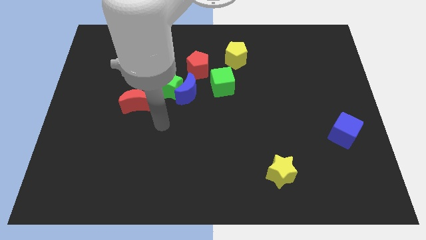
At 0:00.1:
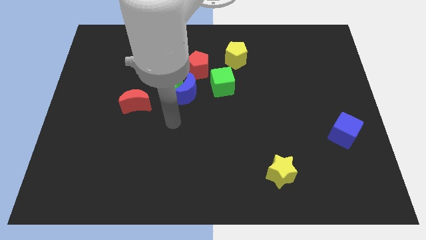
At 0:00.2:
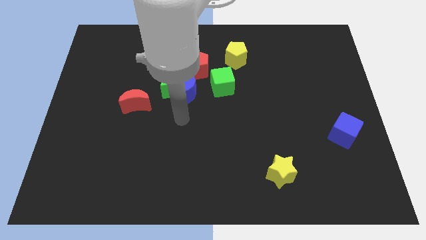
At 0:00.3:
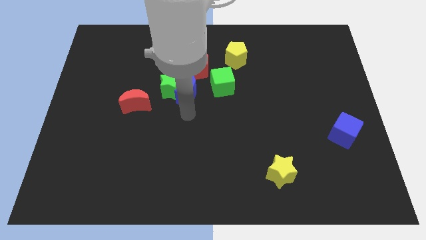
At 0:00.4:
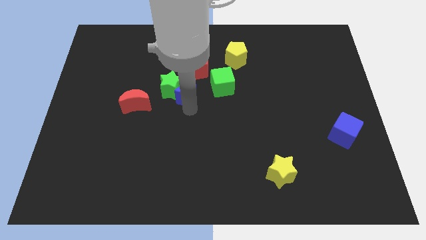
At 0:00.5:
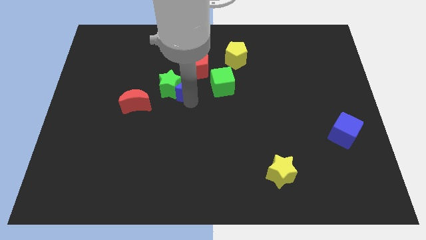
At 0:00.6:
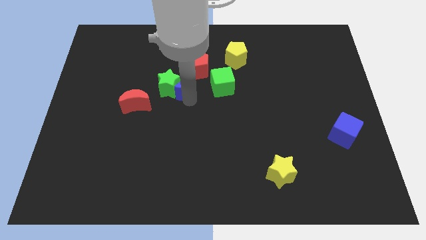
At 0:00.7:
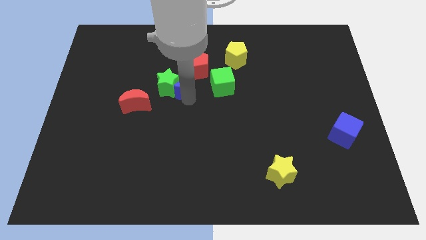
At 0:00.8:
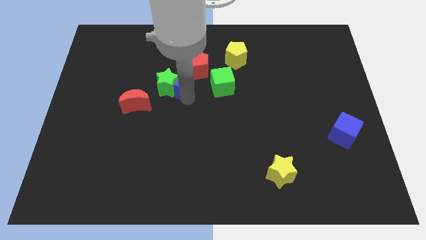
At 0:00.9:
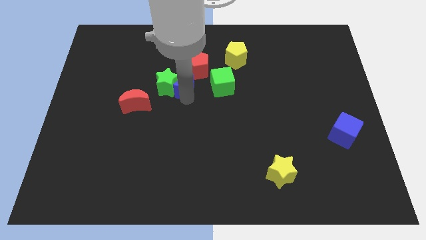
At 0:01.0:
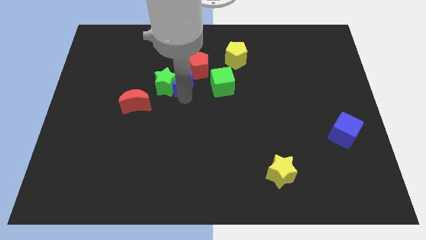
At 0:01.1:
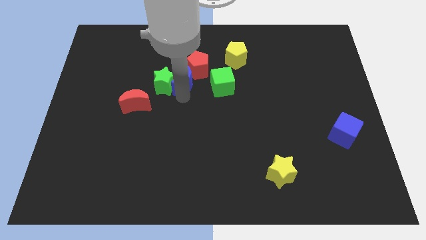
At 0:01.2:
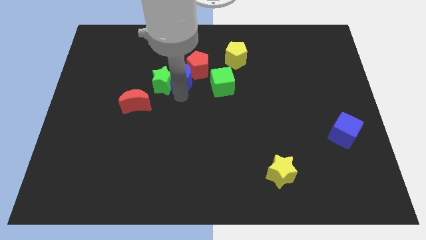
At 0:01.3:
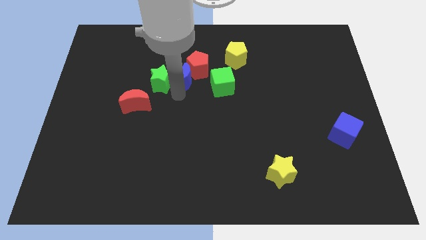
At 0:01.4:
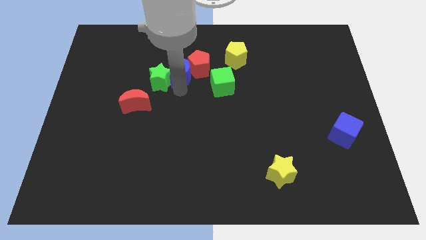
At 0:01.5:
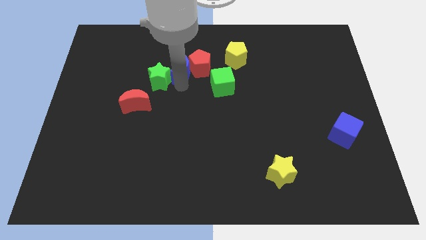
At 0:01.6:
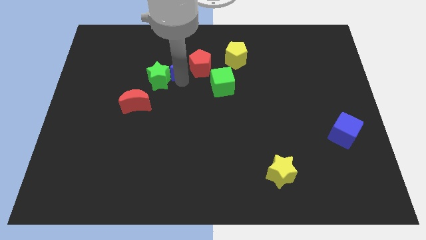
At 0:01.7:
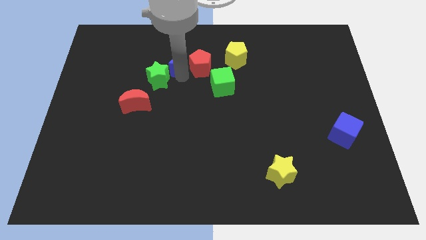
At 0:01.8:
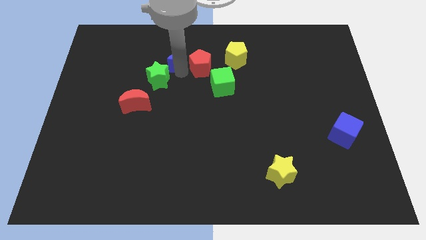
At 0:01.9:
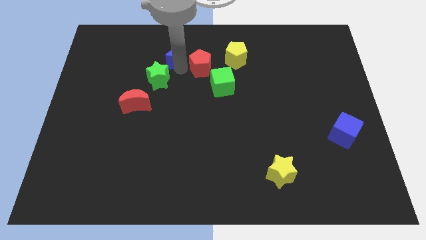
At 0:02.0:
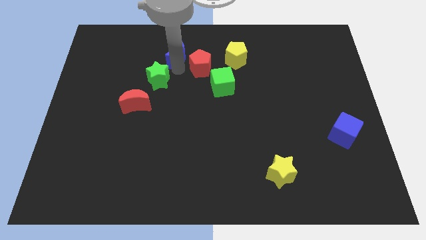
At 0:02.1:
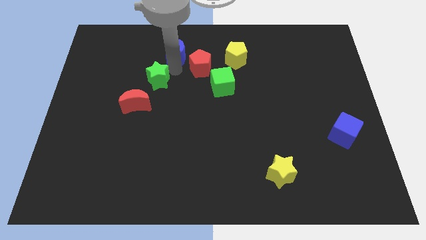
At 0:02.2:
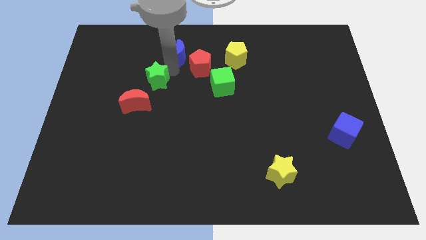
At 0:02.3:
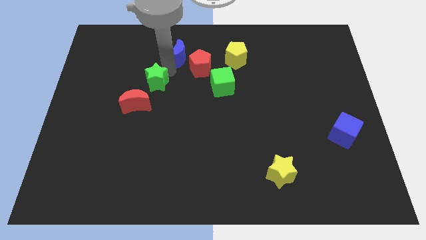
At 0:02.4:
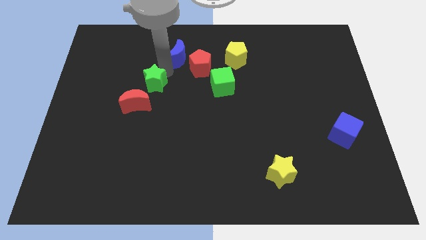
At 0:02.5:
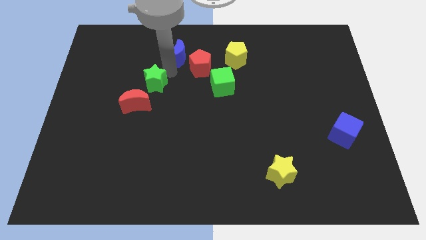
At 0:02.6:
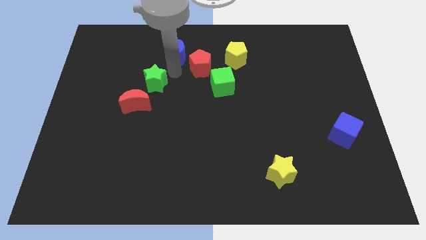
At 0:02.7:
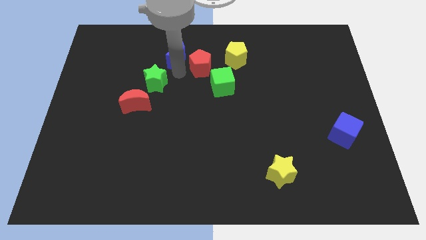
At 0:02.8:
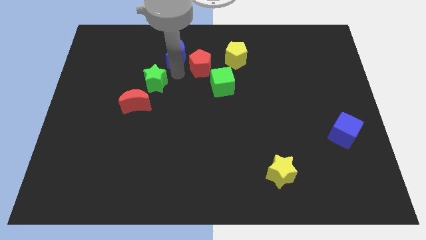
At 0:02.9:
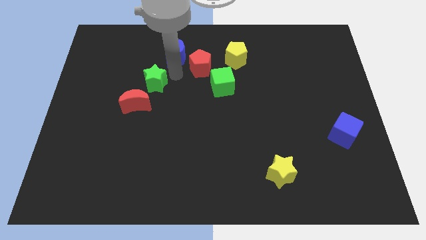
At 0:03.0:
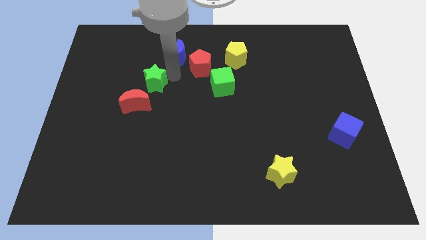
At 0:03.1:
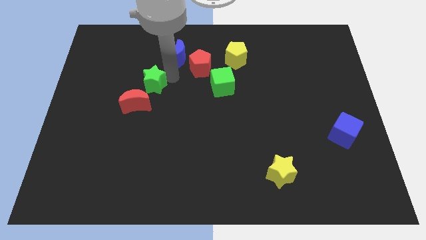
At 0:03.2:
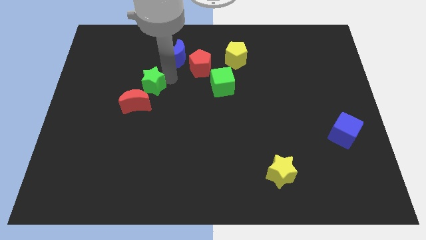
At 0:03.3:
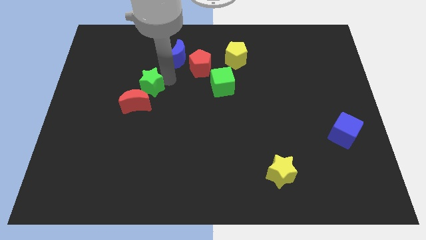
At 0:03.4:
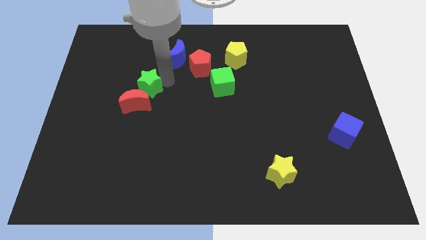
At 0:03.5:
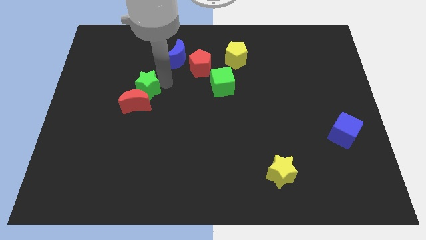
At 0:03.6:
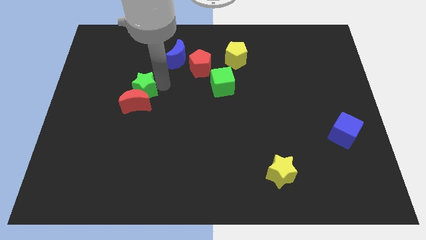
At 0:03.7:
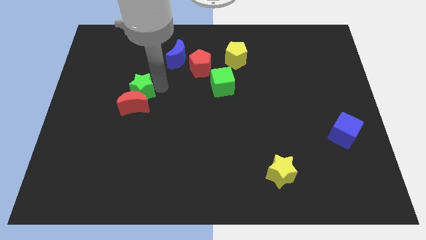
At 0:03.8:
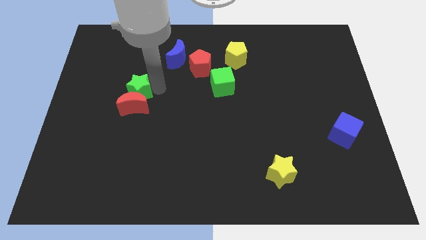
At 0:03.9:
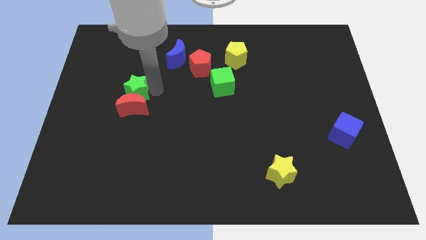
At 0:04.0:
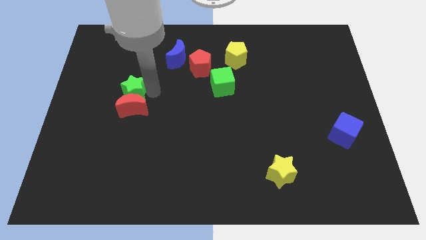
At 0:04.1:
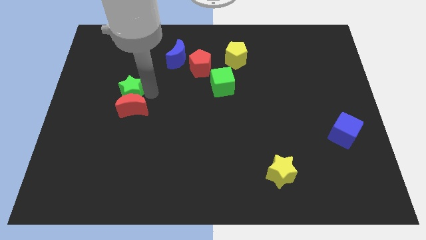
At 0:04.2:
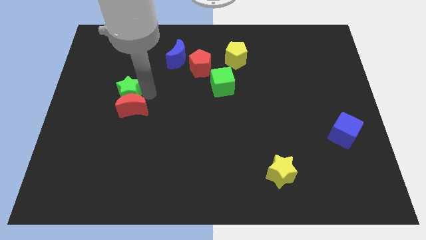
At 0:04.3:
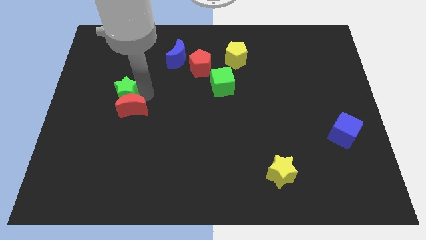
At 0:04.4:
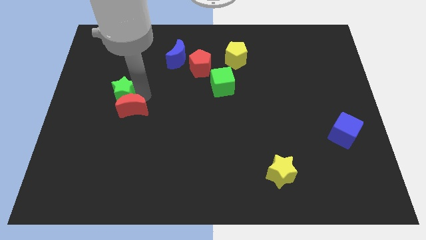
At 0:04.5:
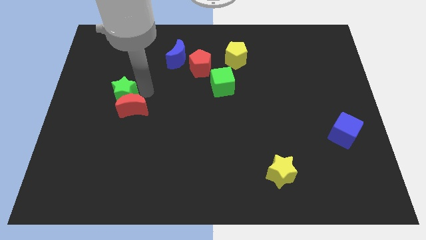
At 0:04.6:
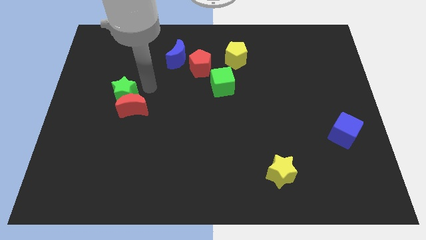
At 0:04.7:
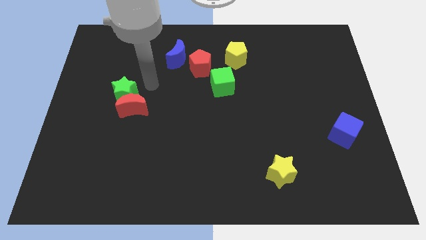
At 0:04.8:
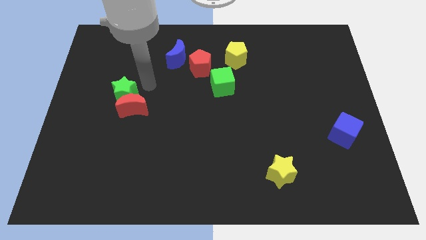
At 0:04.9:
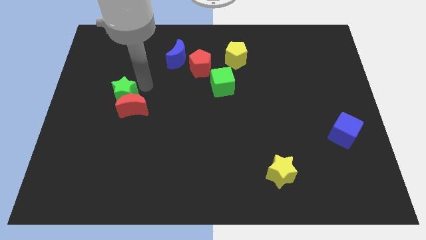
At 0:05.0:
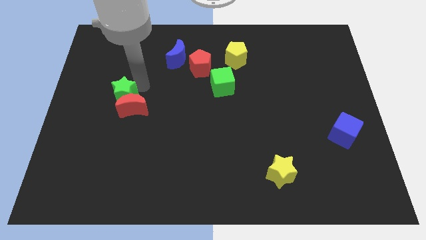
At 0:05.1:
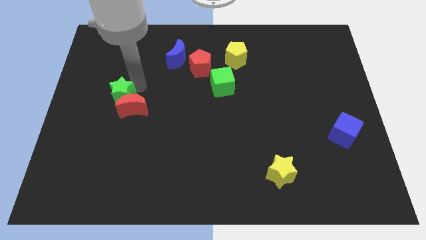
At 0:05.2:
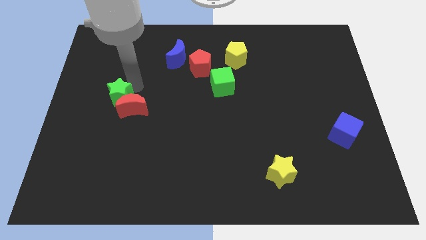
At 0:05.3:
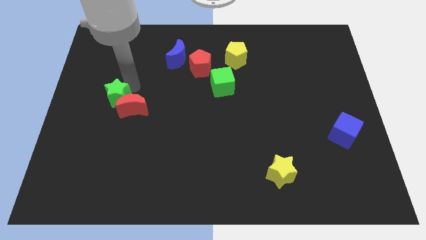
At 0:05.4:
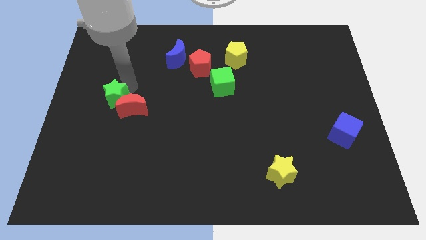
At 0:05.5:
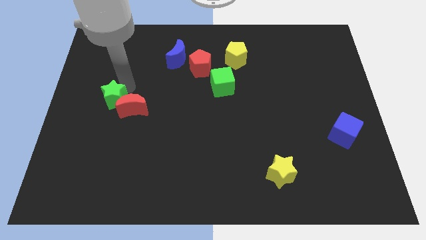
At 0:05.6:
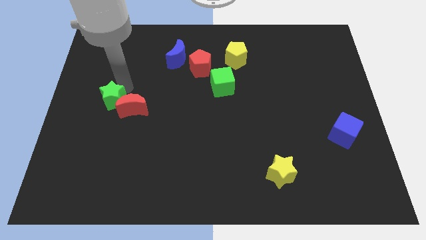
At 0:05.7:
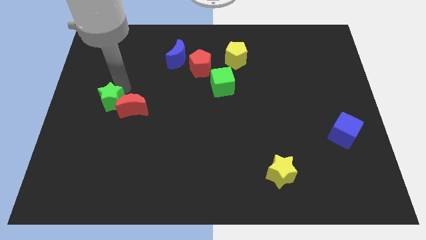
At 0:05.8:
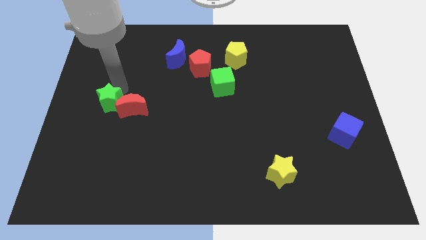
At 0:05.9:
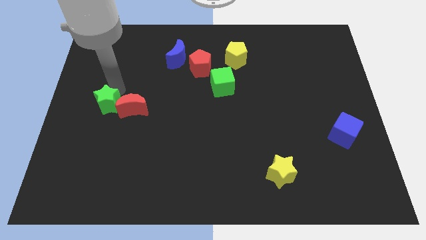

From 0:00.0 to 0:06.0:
move the green star to the left side

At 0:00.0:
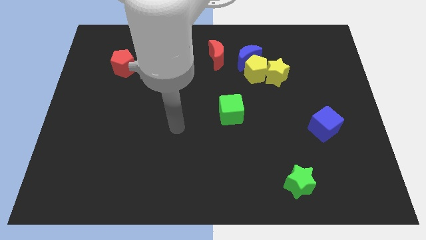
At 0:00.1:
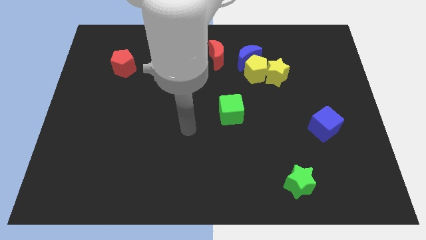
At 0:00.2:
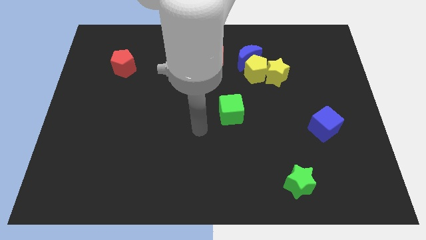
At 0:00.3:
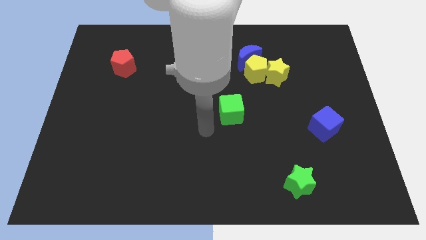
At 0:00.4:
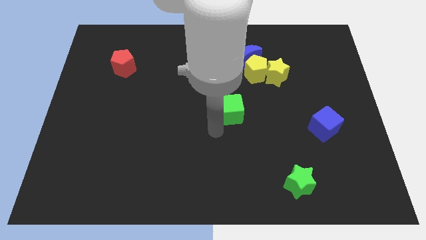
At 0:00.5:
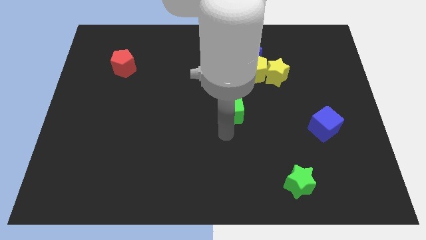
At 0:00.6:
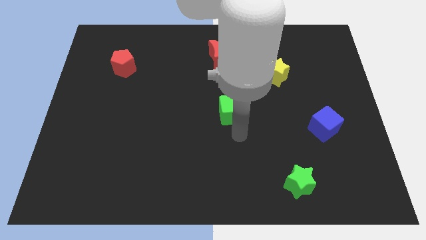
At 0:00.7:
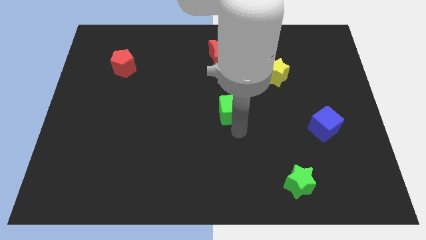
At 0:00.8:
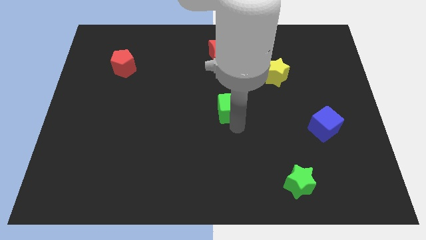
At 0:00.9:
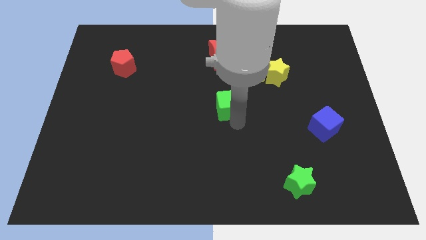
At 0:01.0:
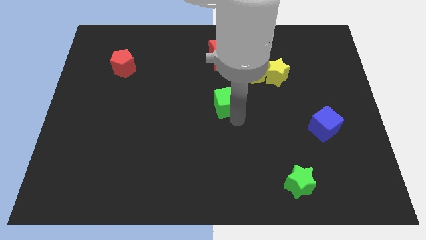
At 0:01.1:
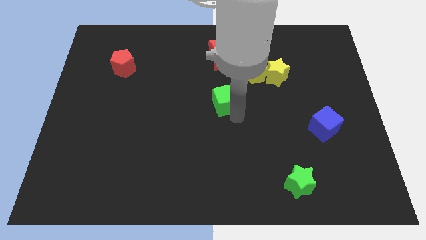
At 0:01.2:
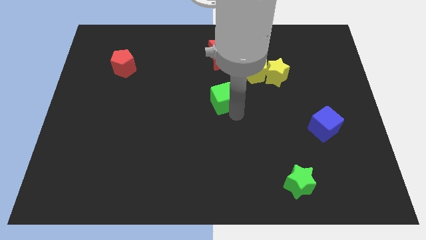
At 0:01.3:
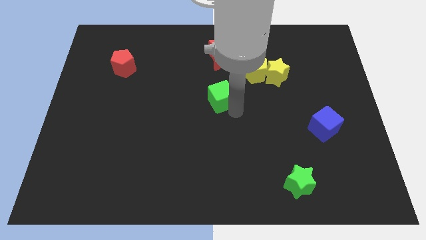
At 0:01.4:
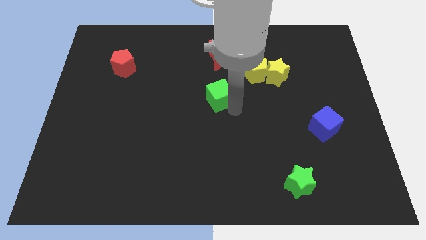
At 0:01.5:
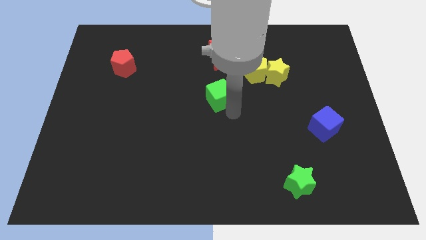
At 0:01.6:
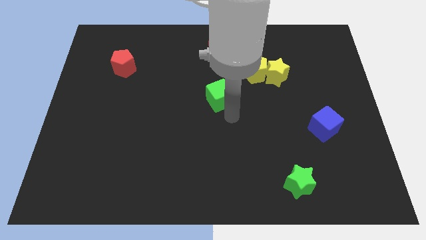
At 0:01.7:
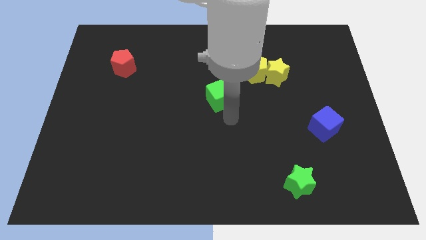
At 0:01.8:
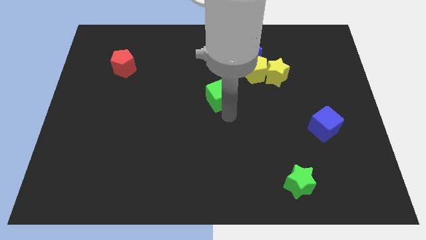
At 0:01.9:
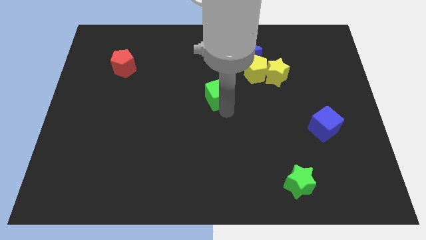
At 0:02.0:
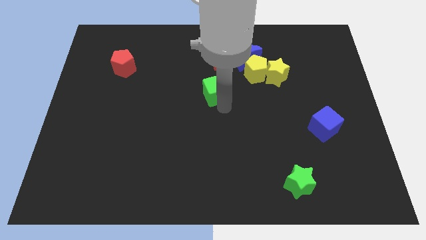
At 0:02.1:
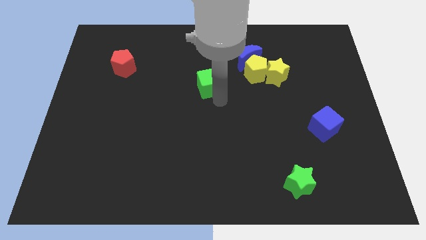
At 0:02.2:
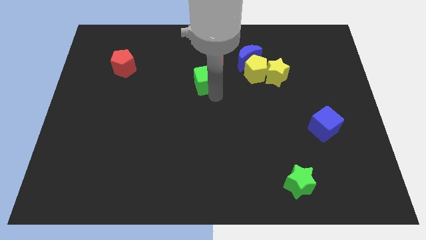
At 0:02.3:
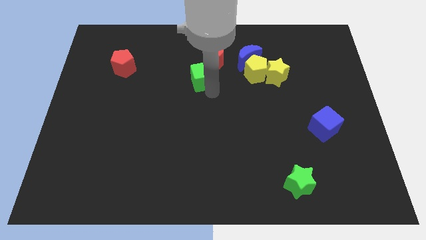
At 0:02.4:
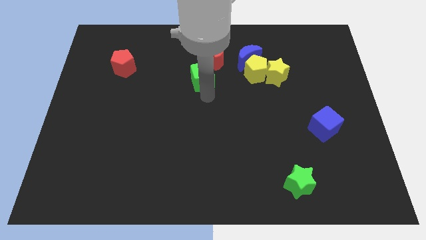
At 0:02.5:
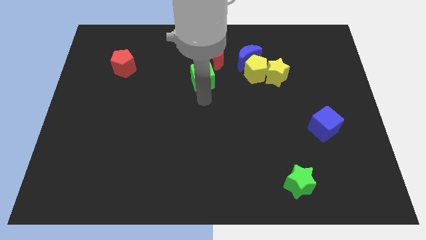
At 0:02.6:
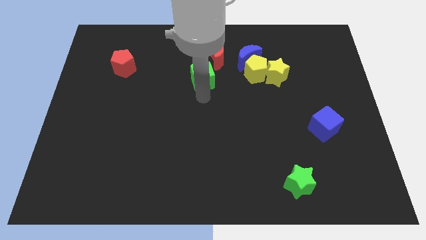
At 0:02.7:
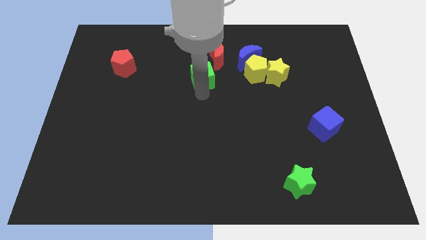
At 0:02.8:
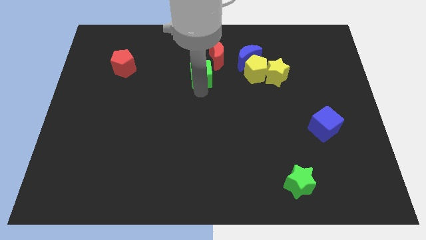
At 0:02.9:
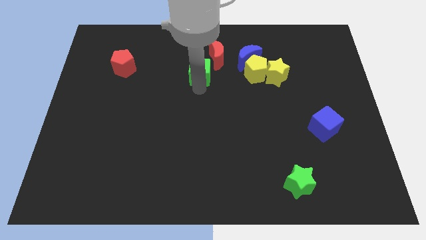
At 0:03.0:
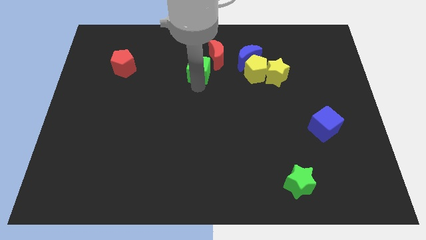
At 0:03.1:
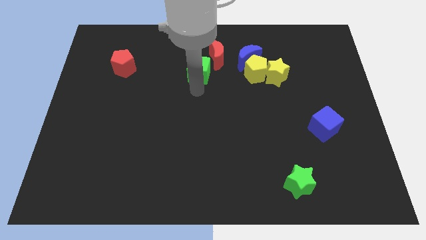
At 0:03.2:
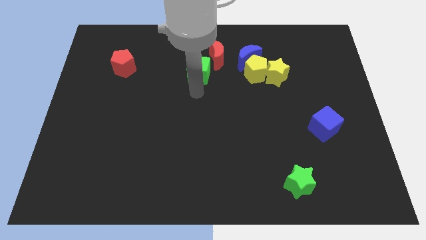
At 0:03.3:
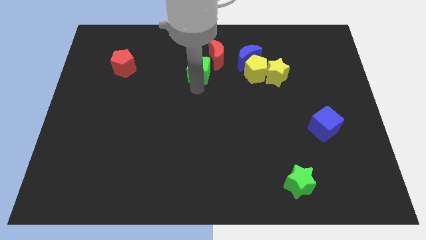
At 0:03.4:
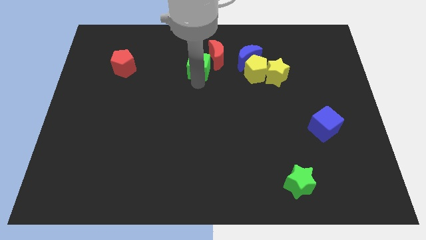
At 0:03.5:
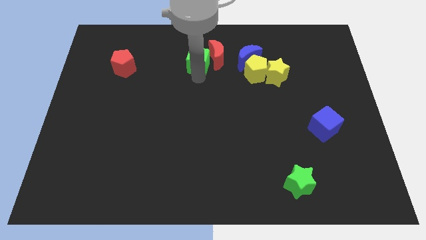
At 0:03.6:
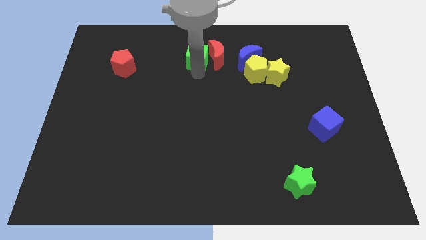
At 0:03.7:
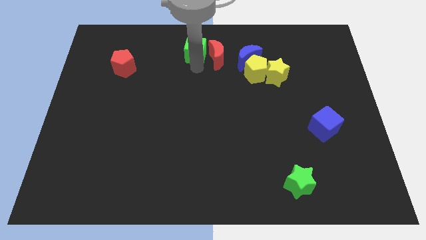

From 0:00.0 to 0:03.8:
slide the green cube to the towards your base
